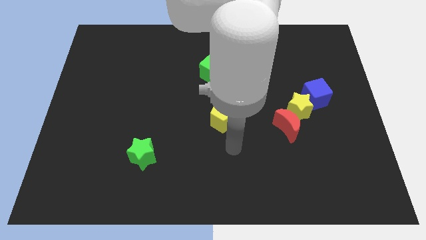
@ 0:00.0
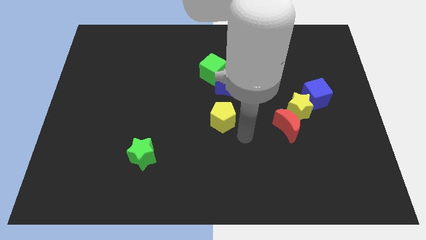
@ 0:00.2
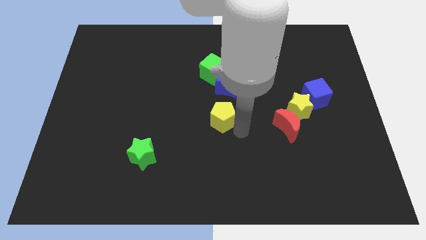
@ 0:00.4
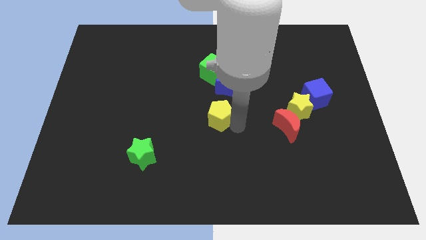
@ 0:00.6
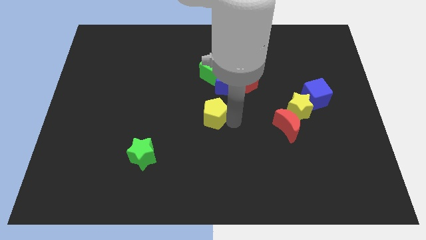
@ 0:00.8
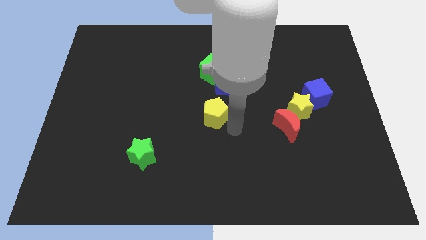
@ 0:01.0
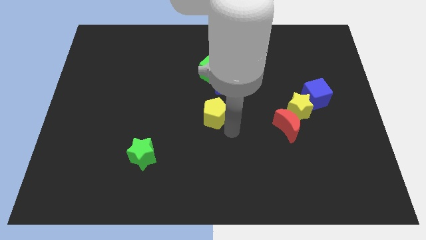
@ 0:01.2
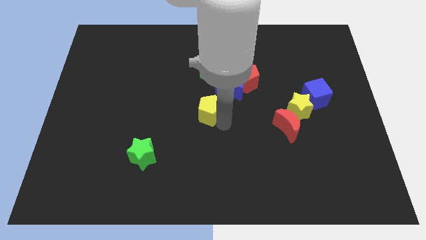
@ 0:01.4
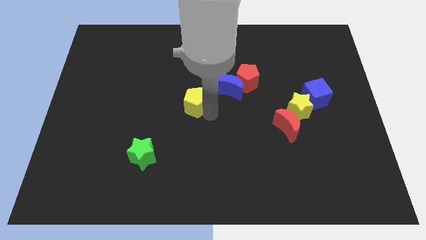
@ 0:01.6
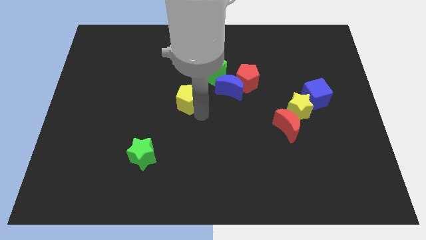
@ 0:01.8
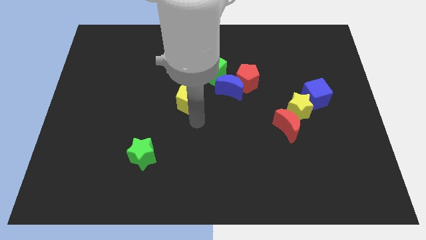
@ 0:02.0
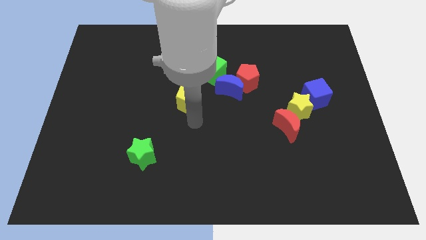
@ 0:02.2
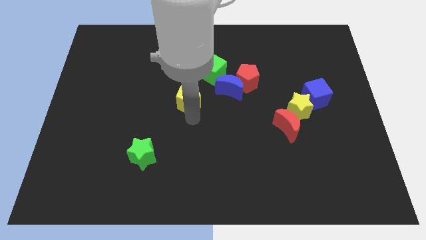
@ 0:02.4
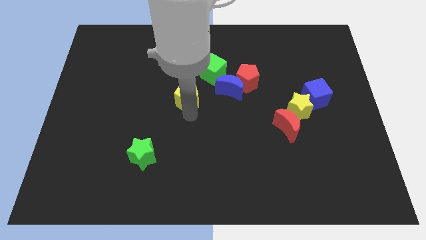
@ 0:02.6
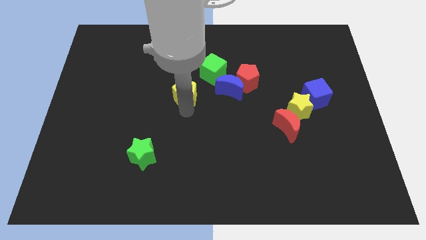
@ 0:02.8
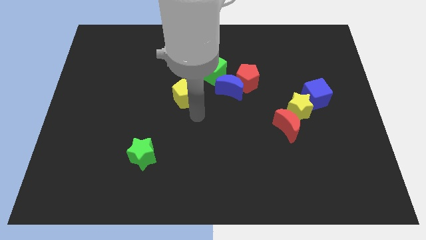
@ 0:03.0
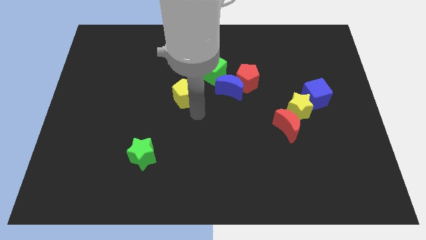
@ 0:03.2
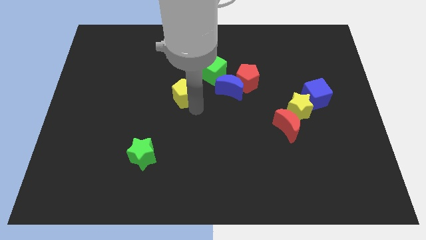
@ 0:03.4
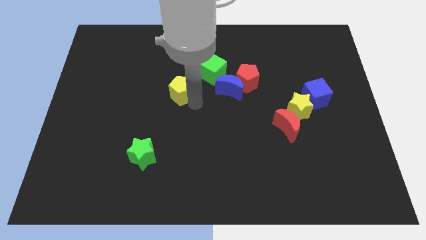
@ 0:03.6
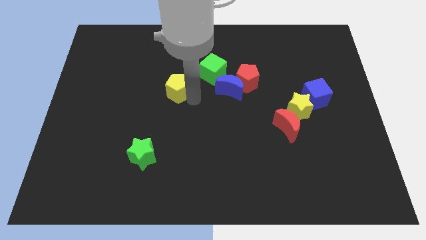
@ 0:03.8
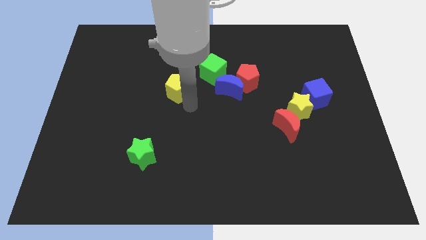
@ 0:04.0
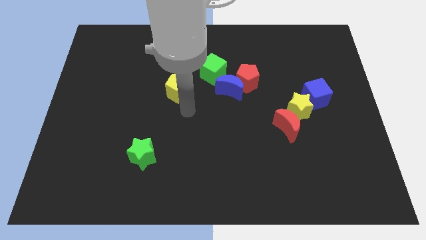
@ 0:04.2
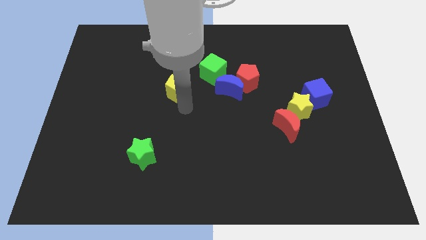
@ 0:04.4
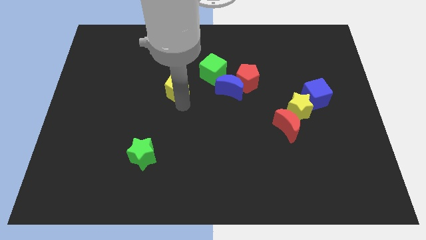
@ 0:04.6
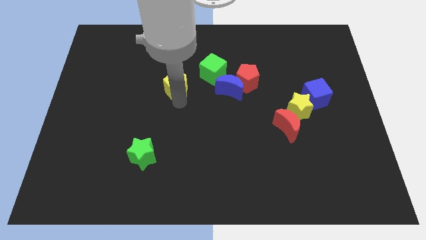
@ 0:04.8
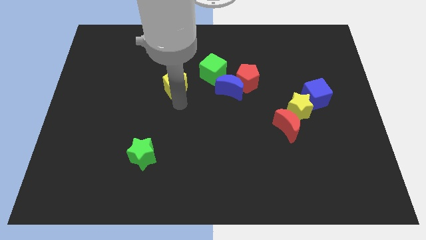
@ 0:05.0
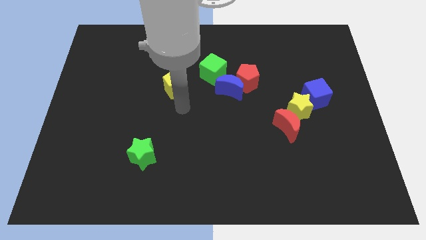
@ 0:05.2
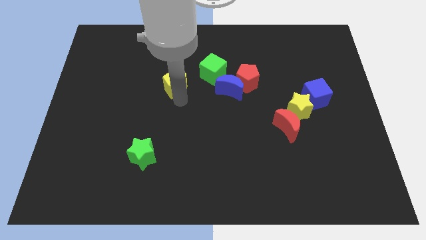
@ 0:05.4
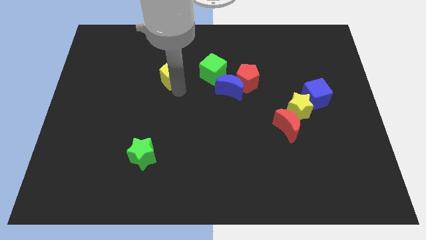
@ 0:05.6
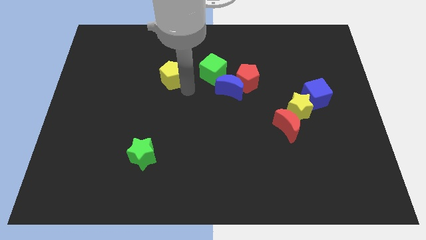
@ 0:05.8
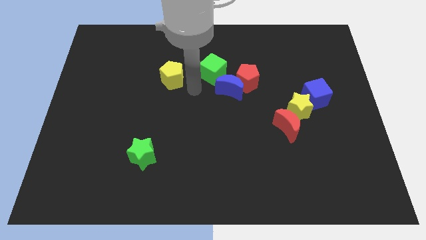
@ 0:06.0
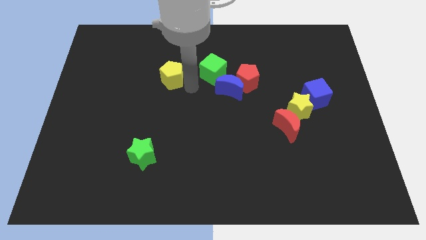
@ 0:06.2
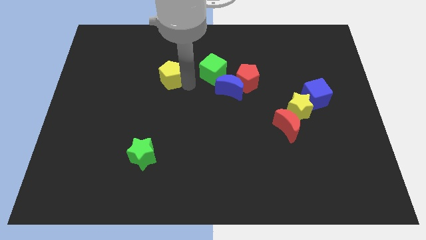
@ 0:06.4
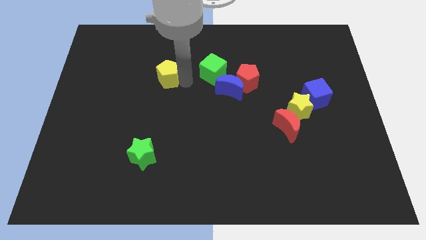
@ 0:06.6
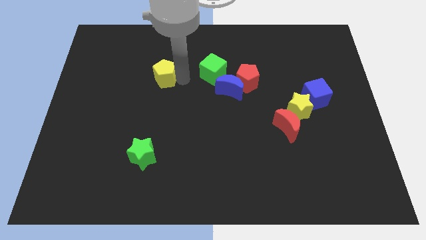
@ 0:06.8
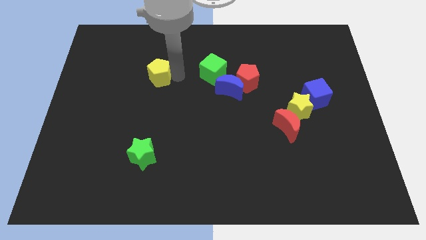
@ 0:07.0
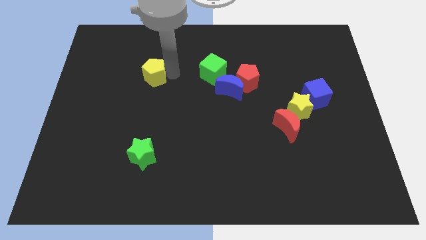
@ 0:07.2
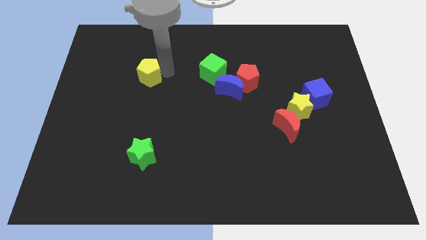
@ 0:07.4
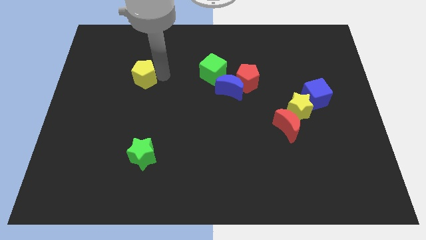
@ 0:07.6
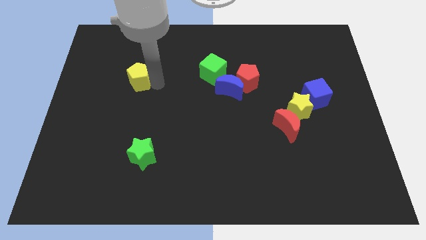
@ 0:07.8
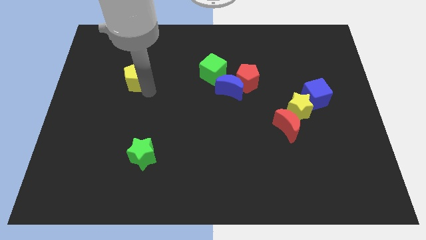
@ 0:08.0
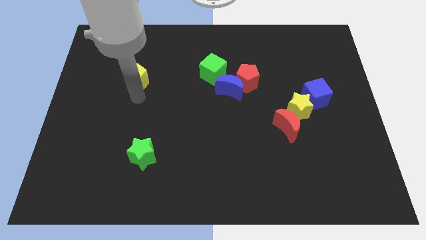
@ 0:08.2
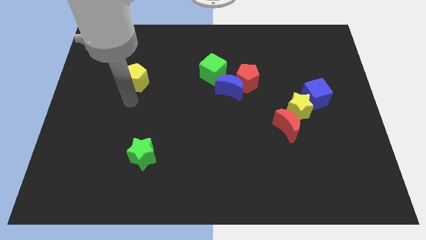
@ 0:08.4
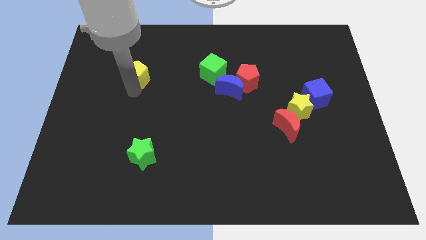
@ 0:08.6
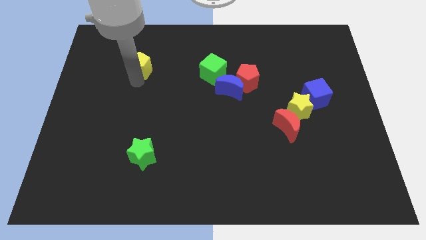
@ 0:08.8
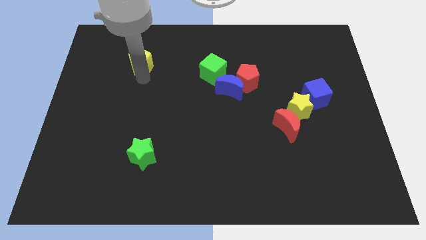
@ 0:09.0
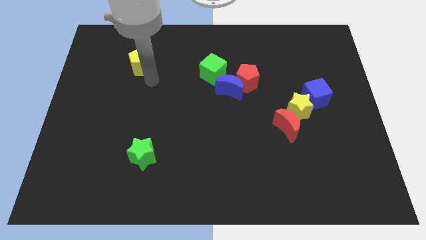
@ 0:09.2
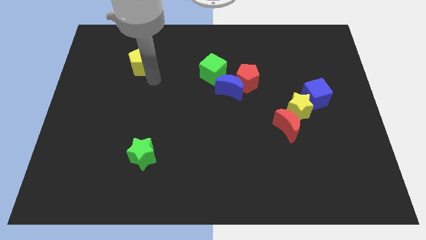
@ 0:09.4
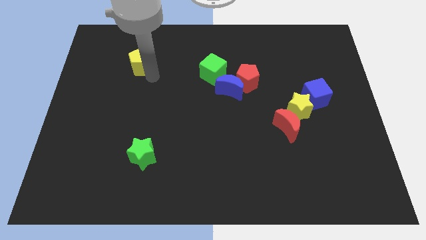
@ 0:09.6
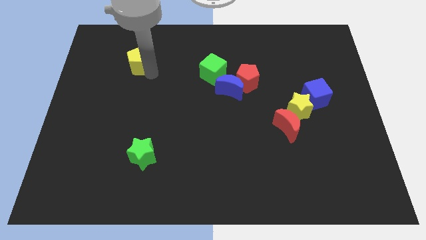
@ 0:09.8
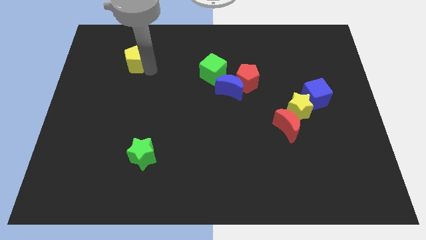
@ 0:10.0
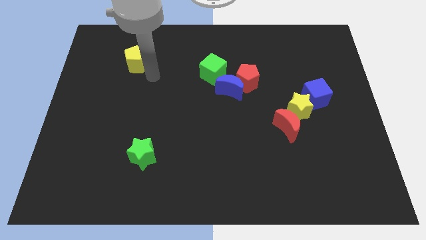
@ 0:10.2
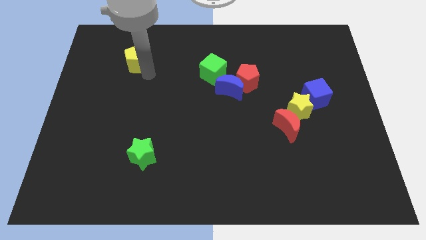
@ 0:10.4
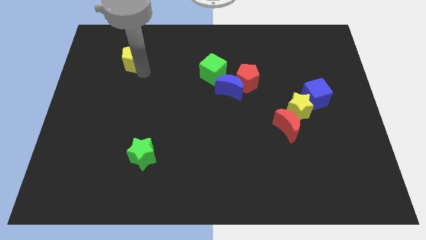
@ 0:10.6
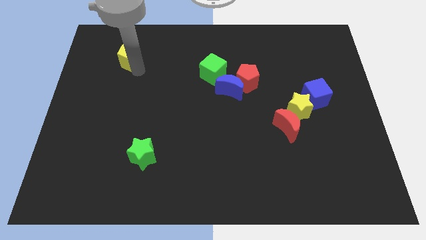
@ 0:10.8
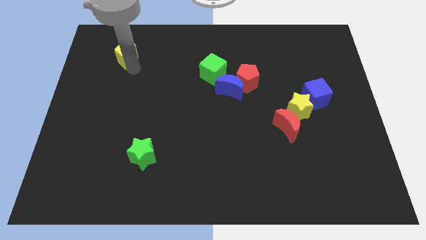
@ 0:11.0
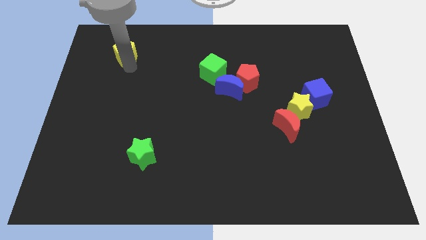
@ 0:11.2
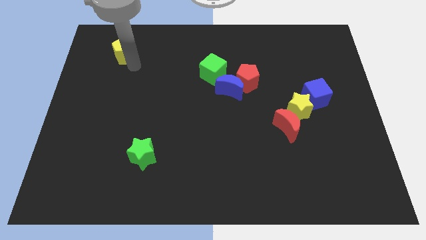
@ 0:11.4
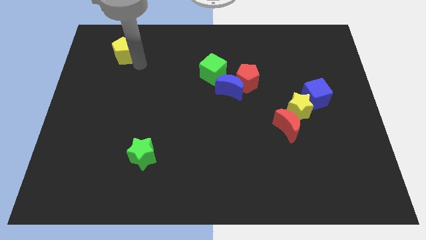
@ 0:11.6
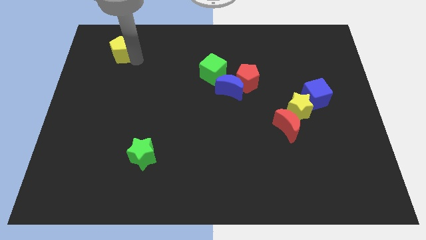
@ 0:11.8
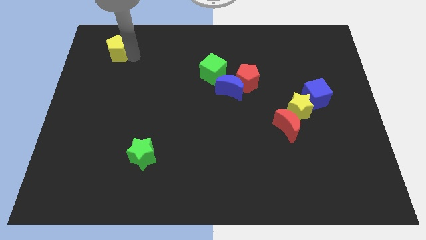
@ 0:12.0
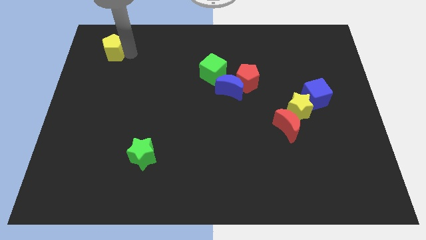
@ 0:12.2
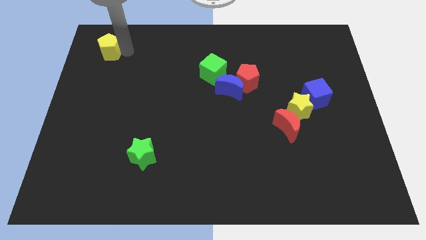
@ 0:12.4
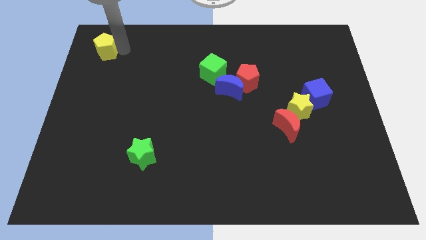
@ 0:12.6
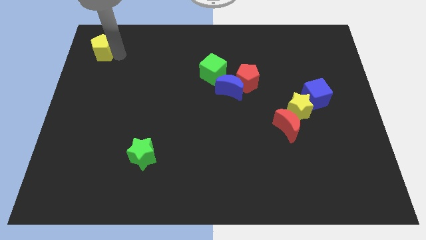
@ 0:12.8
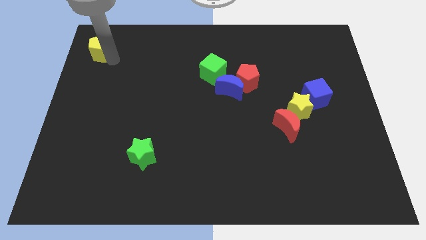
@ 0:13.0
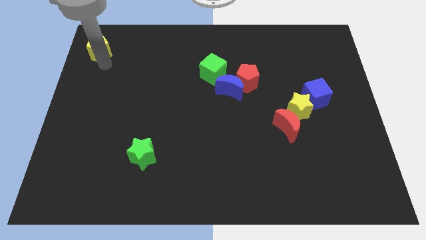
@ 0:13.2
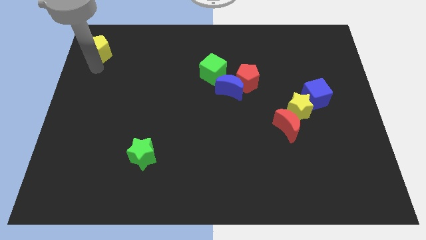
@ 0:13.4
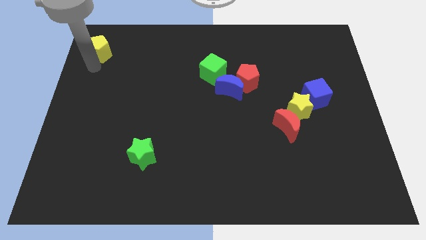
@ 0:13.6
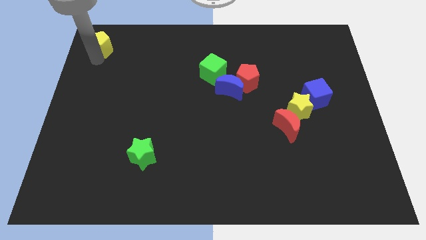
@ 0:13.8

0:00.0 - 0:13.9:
put the yellow pentagon to the top left corner
